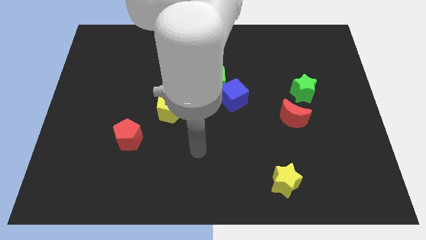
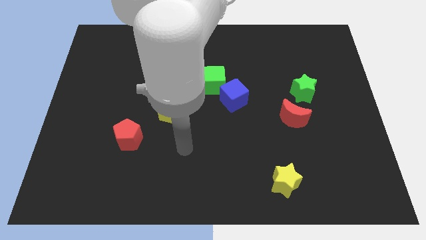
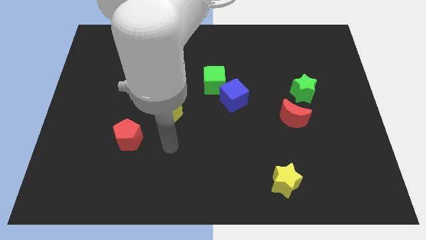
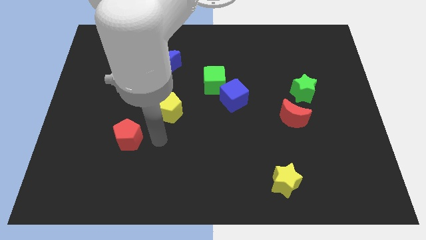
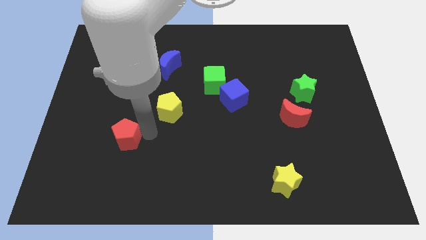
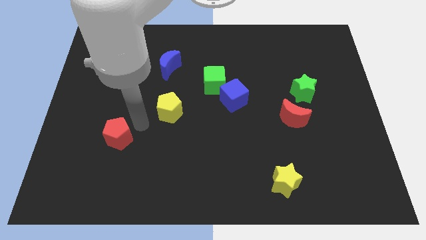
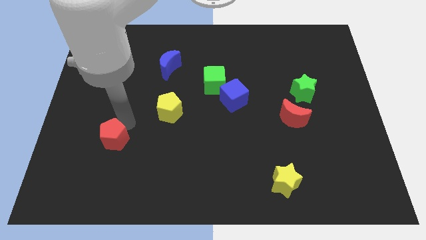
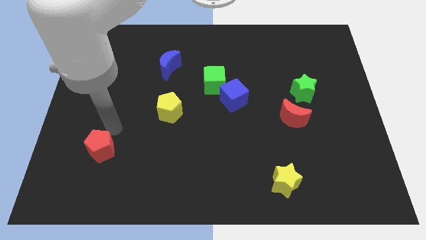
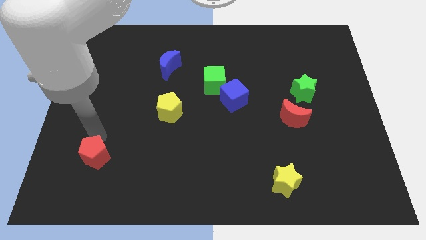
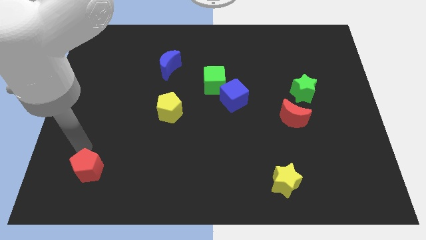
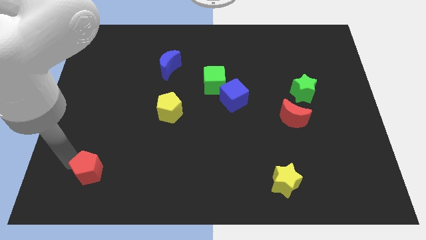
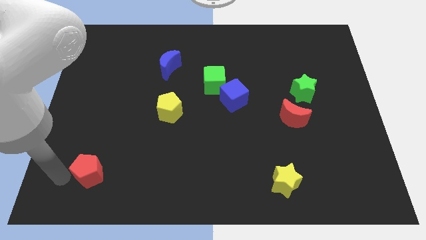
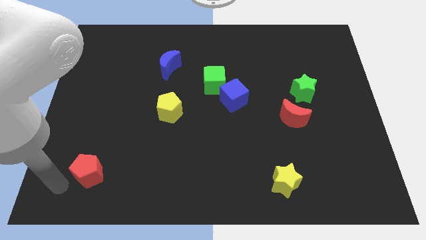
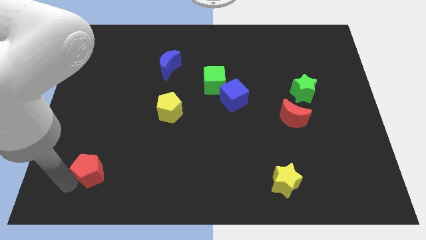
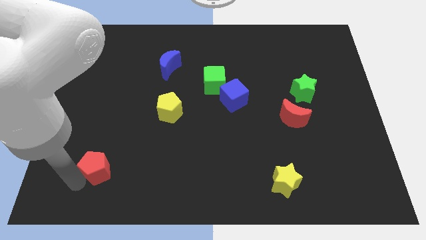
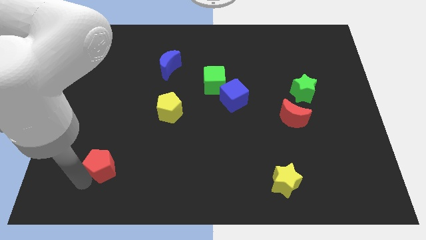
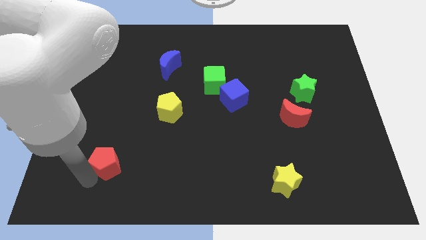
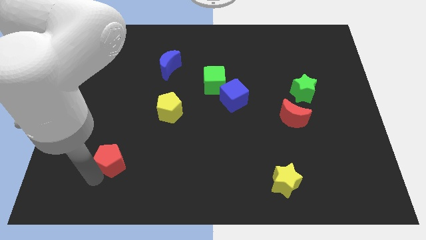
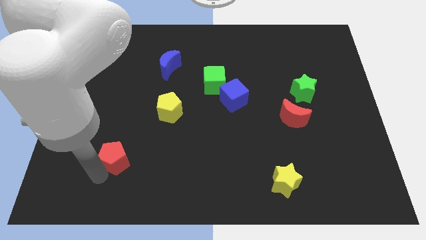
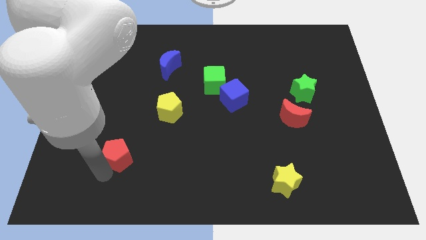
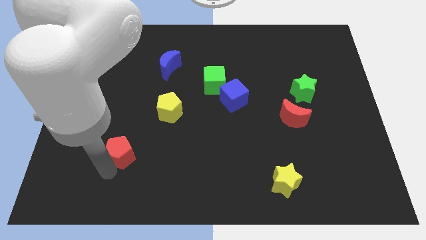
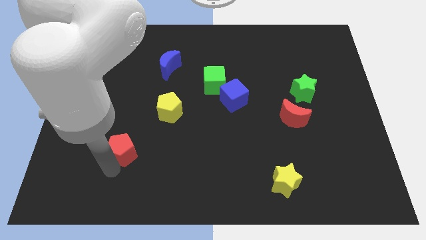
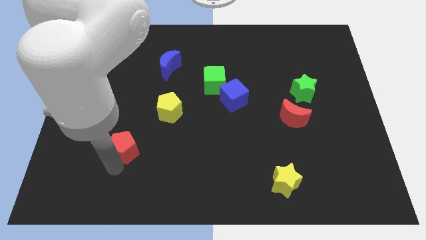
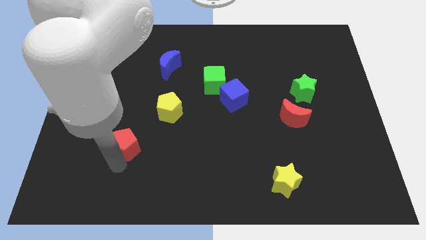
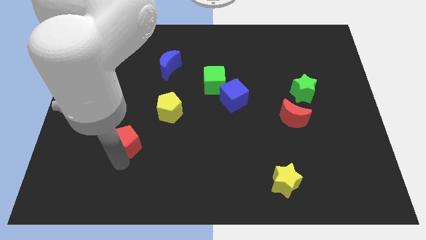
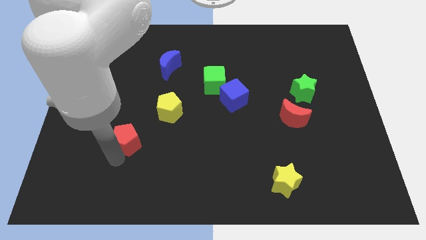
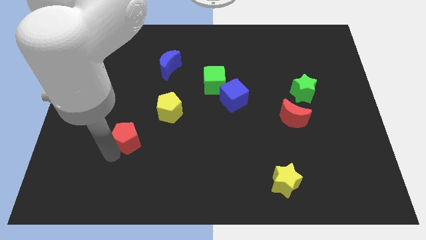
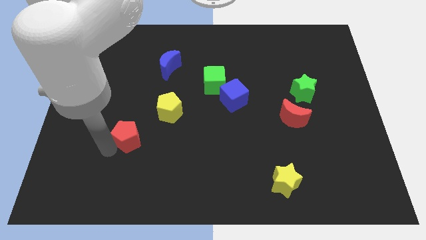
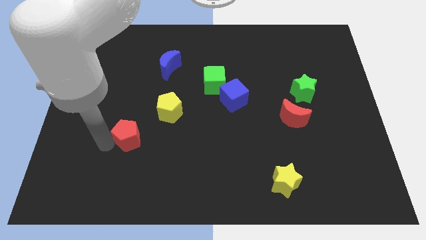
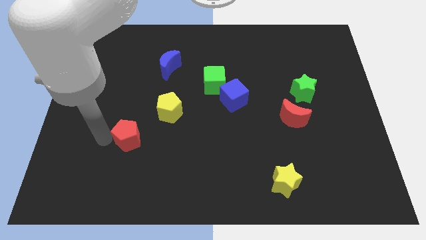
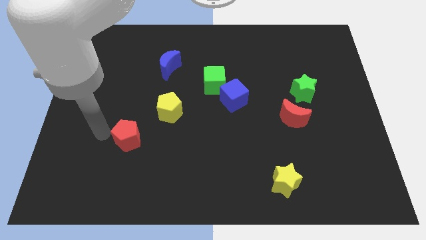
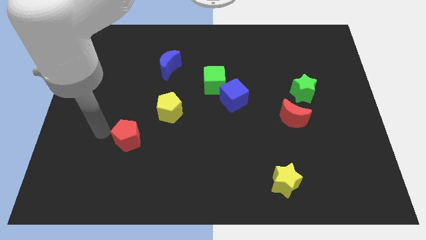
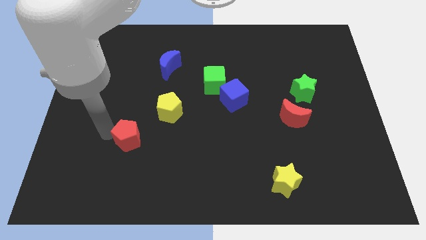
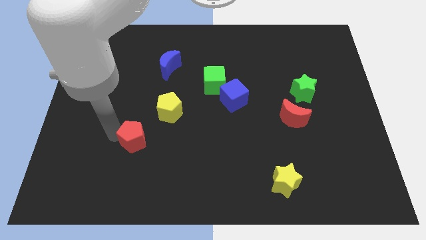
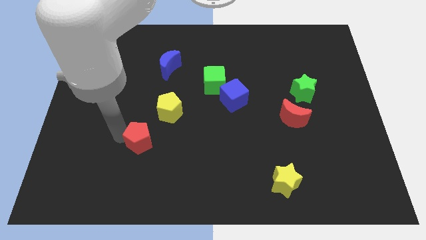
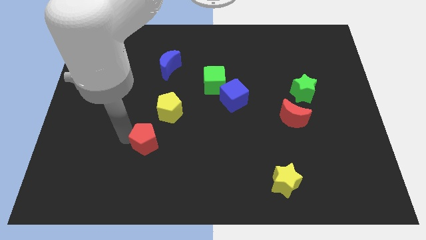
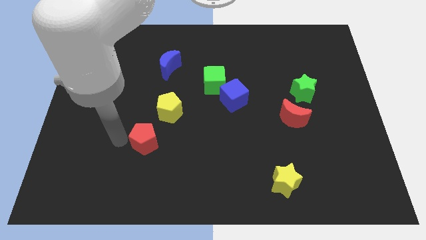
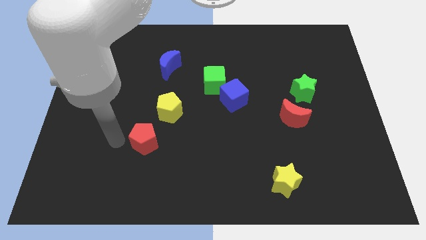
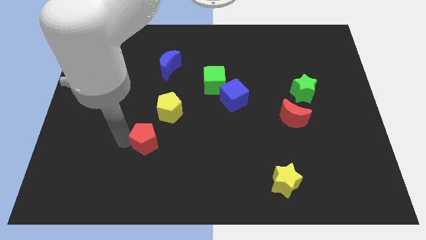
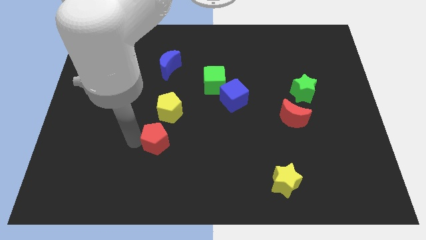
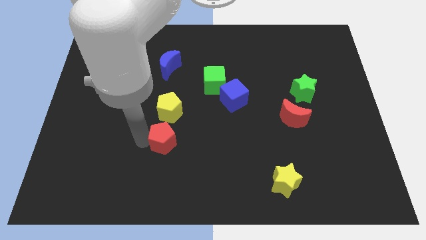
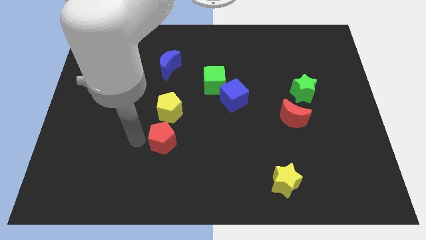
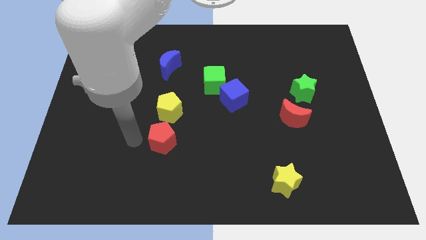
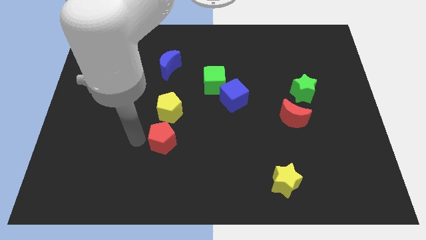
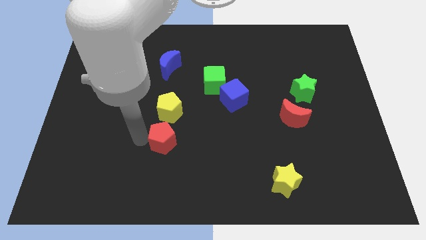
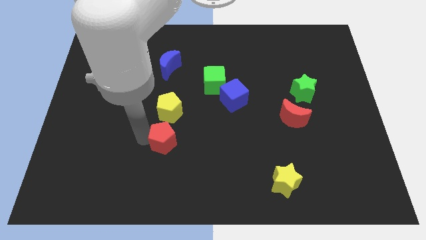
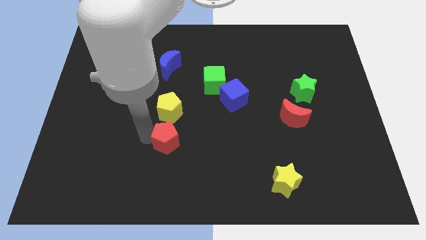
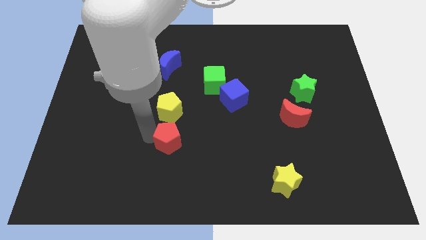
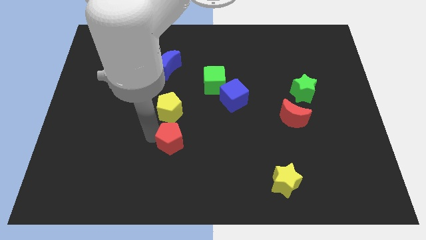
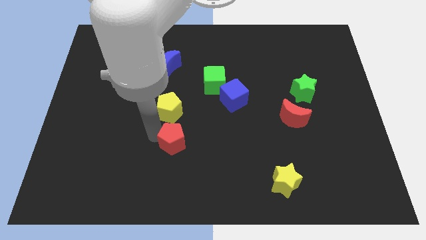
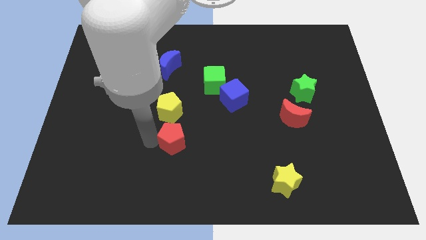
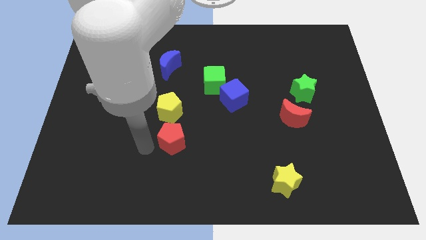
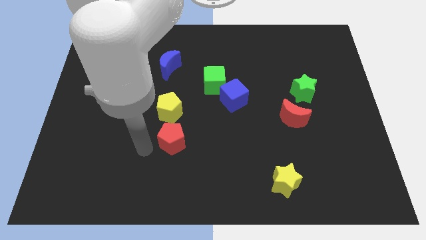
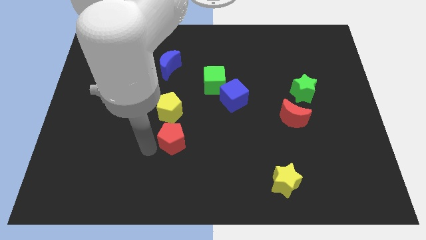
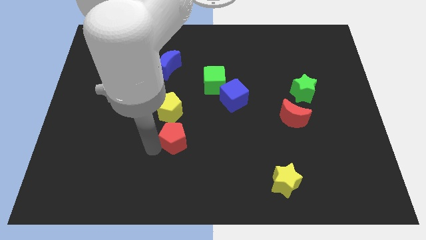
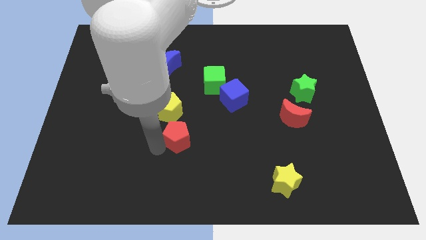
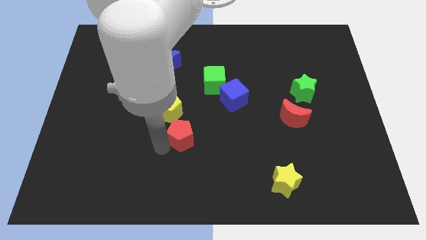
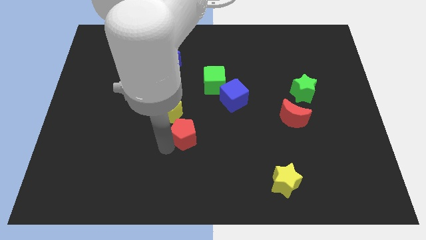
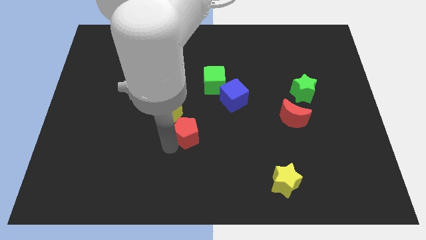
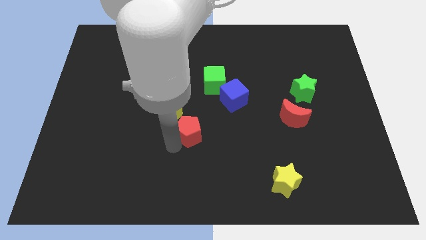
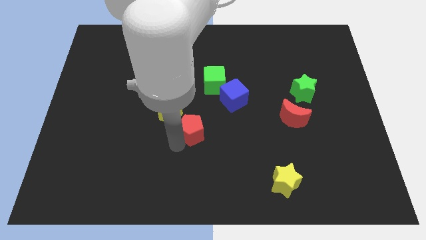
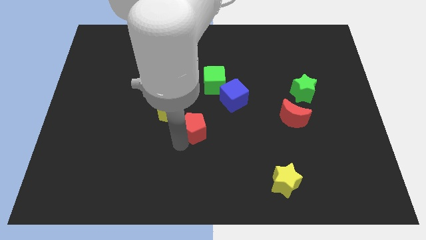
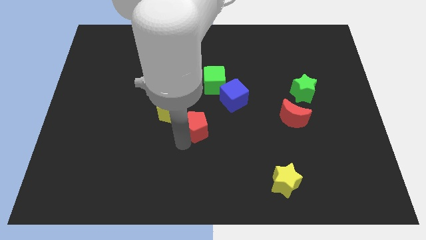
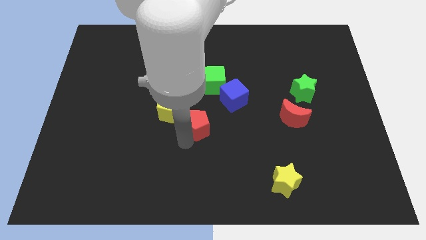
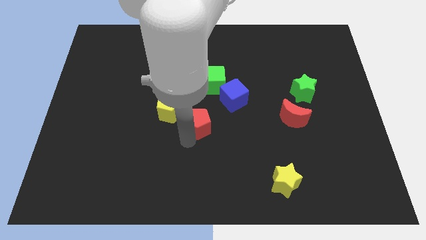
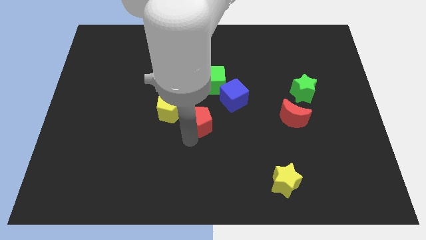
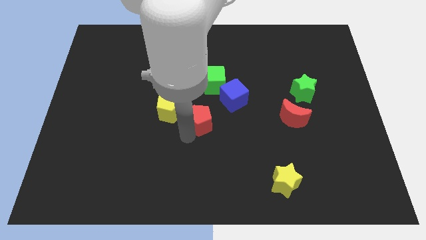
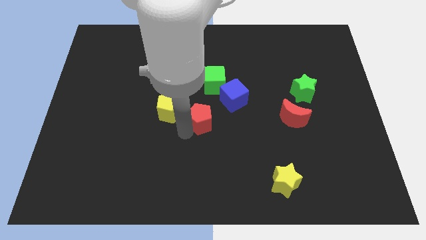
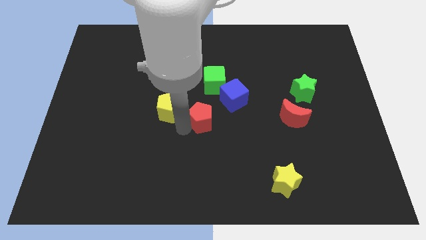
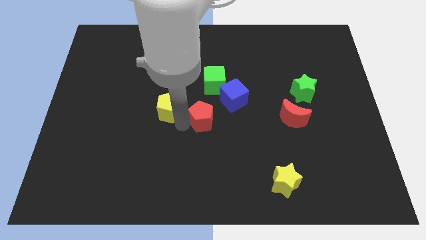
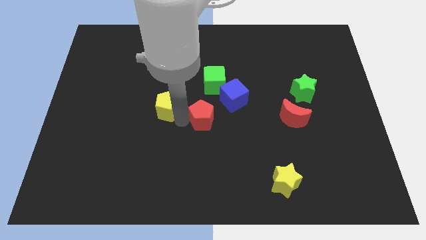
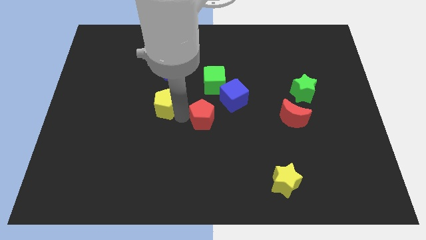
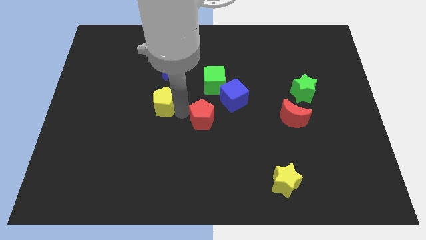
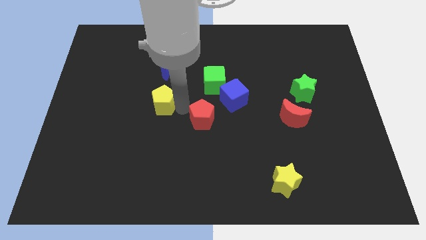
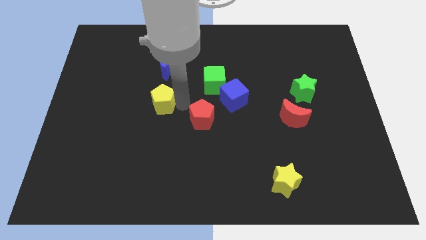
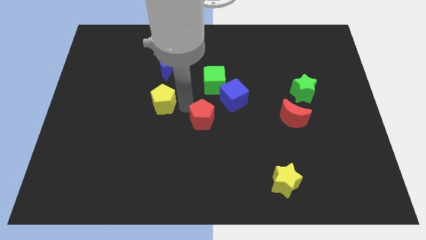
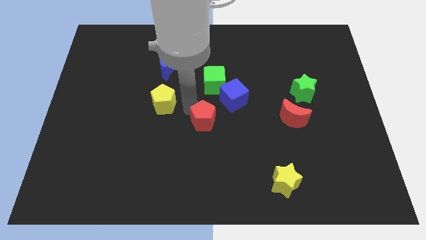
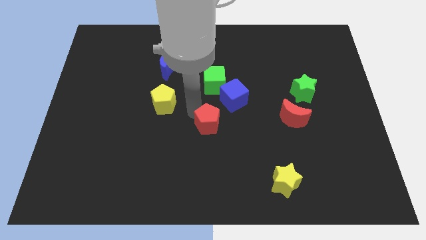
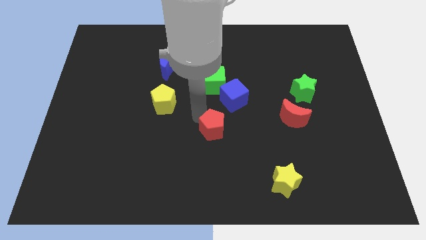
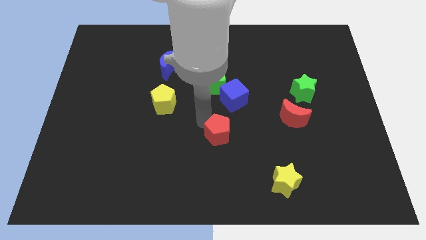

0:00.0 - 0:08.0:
move the red pentagon right
